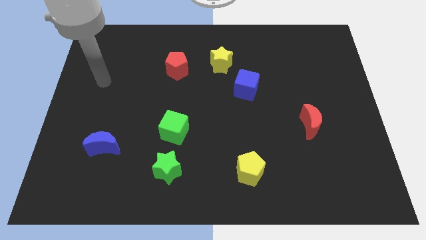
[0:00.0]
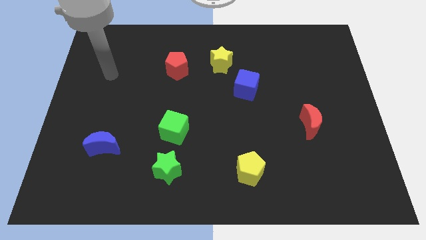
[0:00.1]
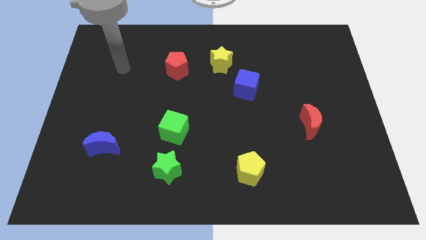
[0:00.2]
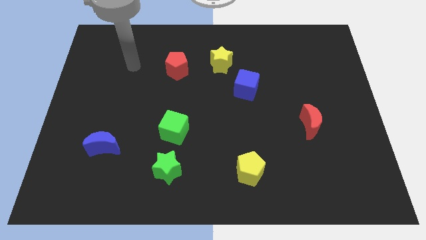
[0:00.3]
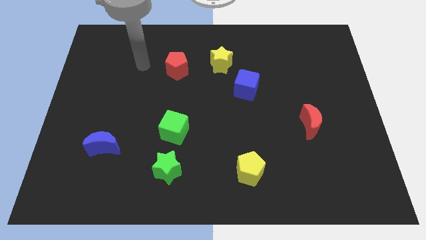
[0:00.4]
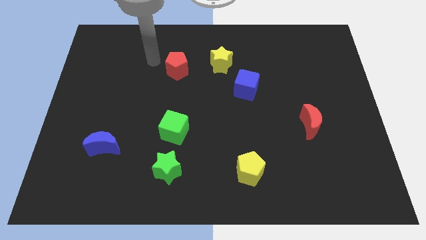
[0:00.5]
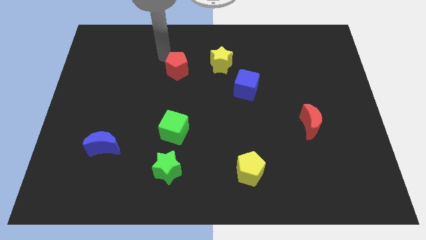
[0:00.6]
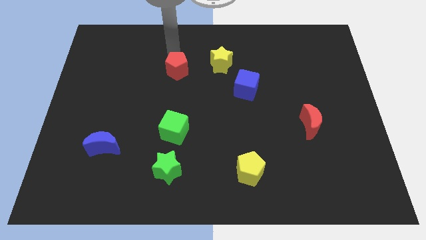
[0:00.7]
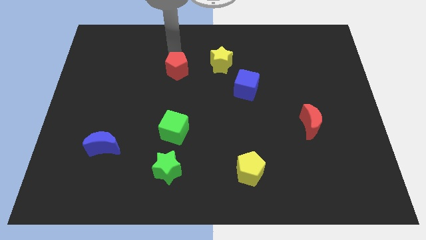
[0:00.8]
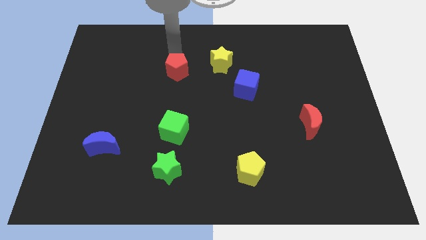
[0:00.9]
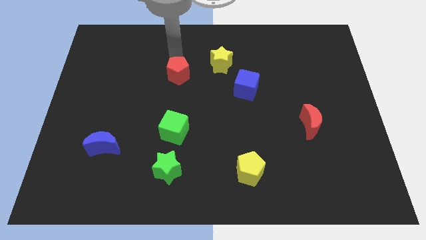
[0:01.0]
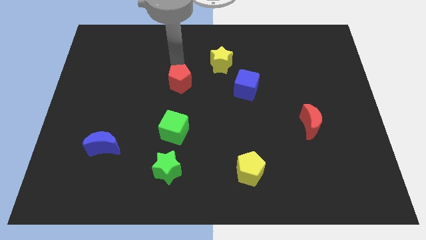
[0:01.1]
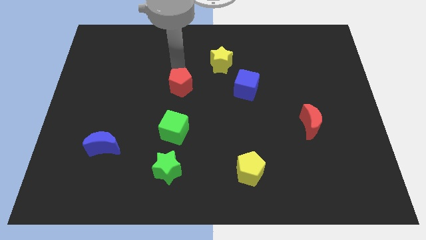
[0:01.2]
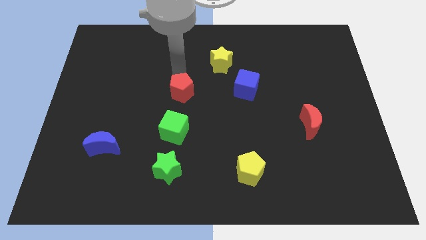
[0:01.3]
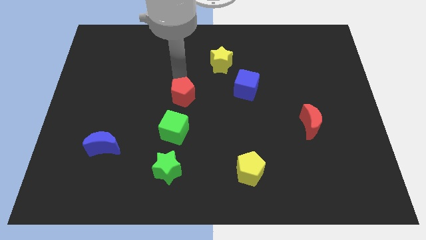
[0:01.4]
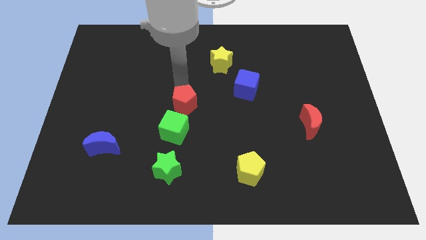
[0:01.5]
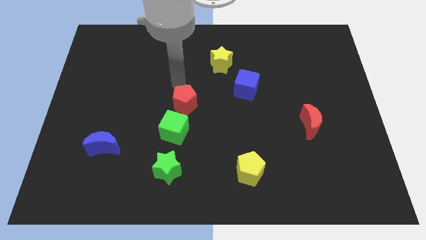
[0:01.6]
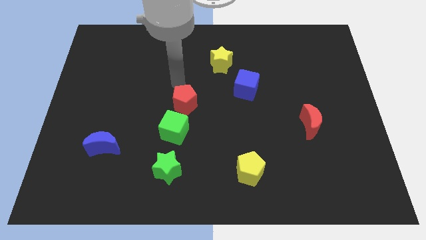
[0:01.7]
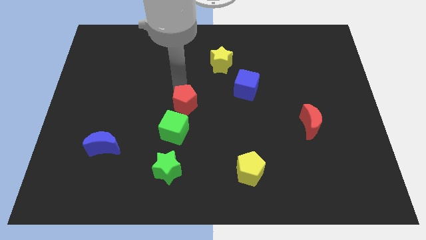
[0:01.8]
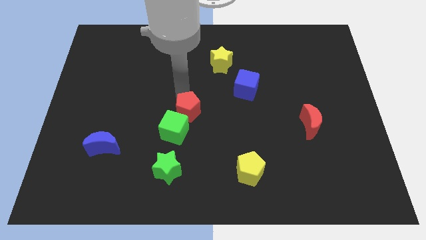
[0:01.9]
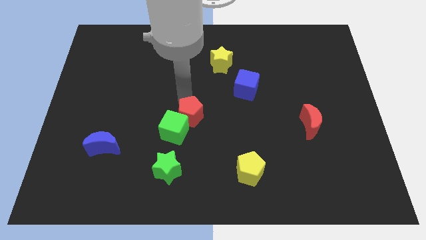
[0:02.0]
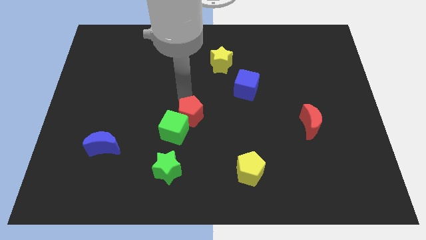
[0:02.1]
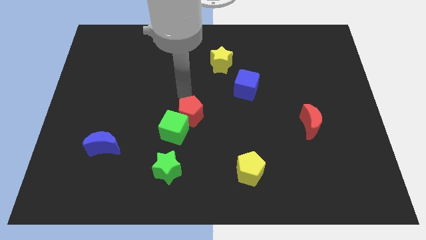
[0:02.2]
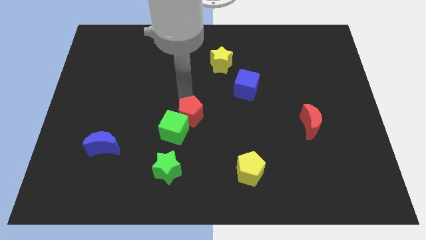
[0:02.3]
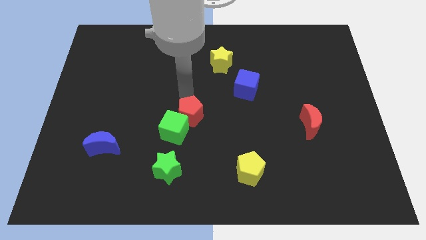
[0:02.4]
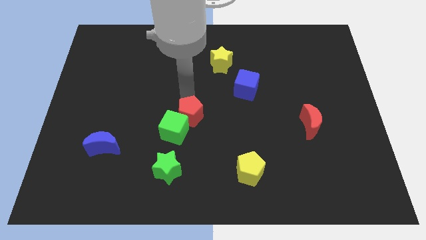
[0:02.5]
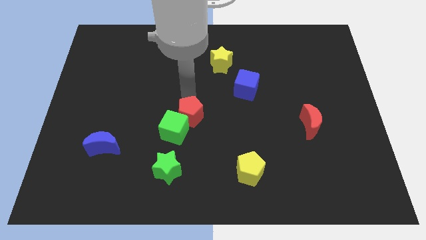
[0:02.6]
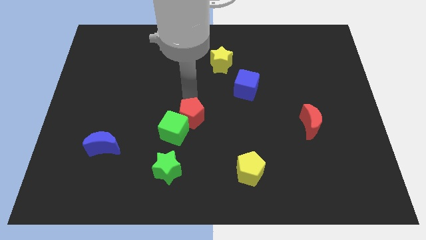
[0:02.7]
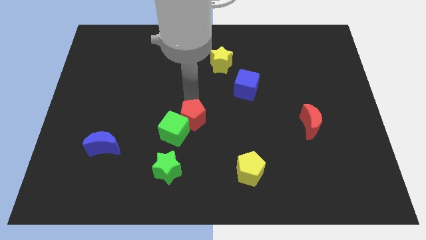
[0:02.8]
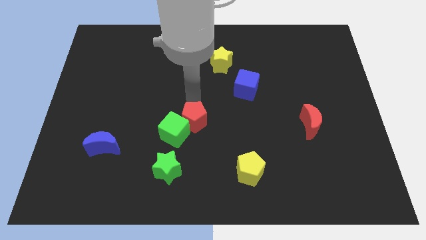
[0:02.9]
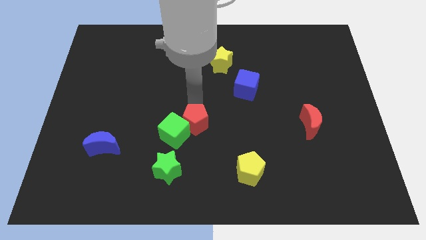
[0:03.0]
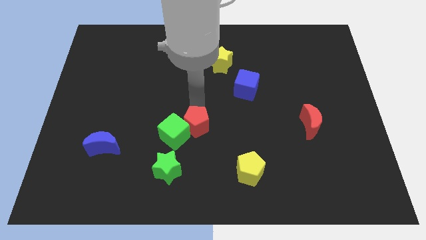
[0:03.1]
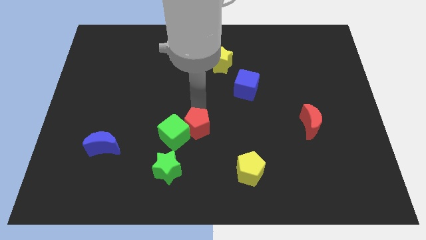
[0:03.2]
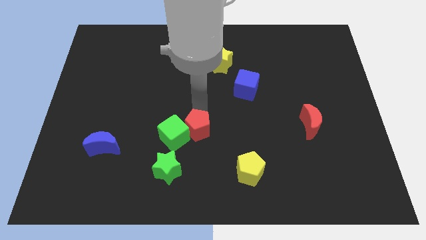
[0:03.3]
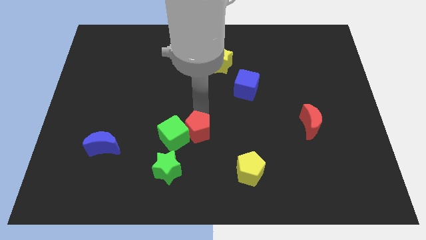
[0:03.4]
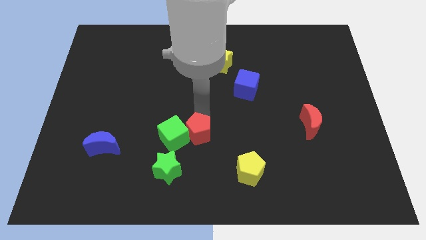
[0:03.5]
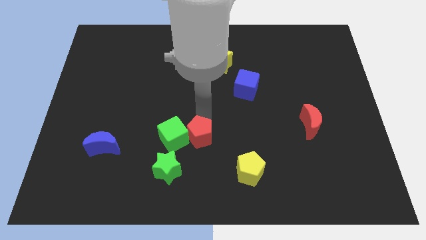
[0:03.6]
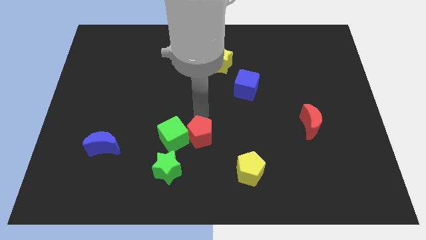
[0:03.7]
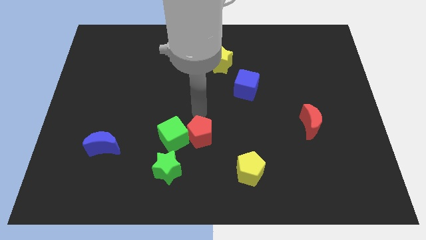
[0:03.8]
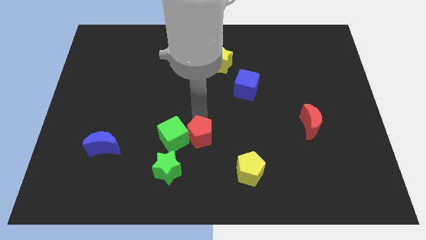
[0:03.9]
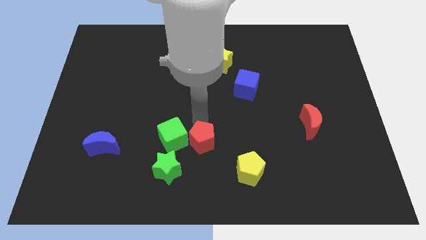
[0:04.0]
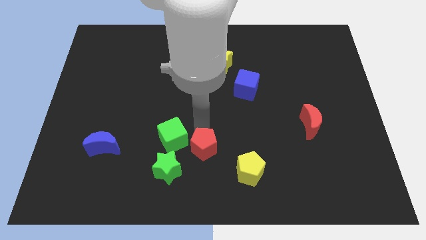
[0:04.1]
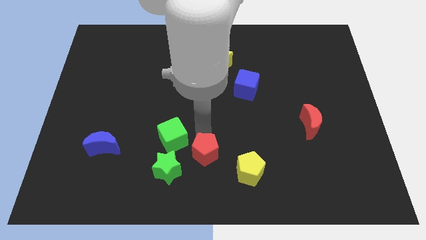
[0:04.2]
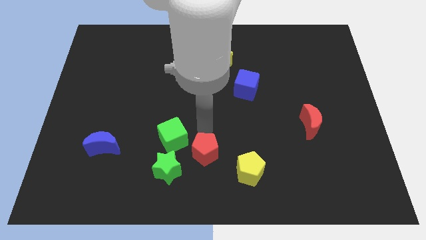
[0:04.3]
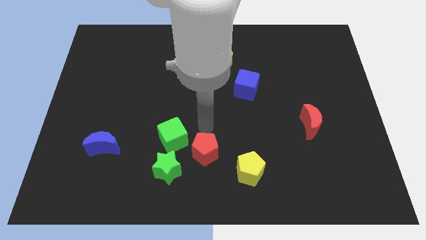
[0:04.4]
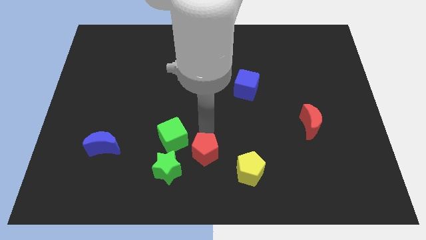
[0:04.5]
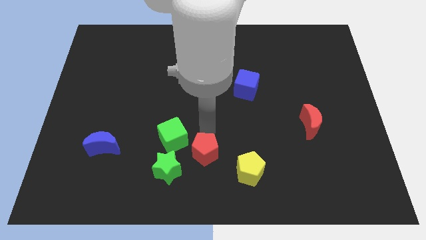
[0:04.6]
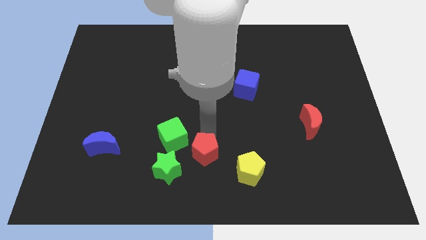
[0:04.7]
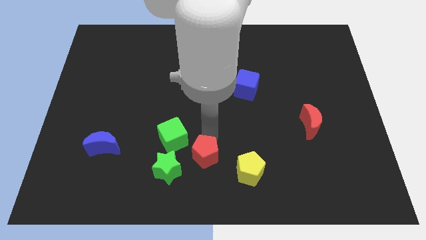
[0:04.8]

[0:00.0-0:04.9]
slide the red pentagon to the bottom side

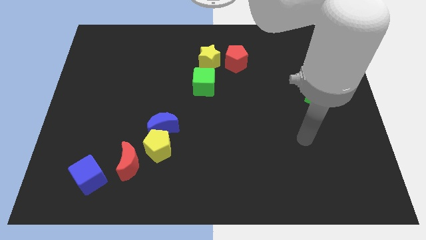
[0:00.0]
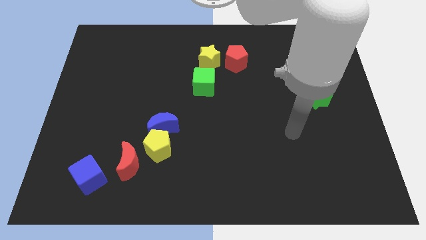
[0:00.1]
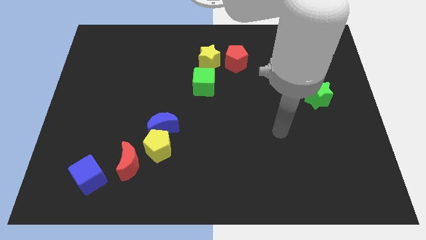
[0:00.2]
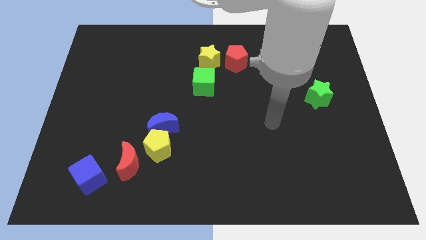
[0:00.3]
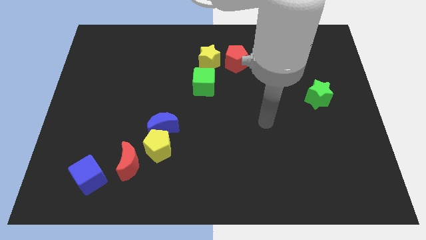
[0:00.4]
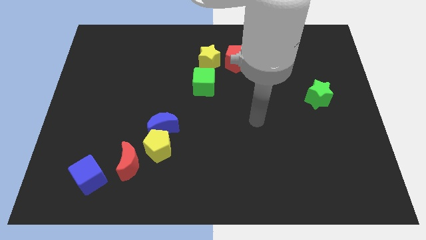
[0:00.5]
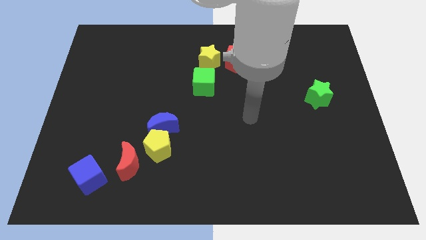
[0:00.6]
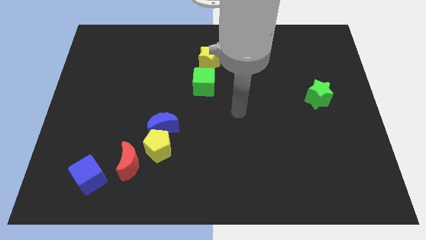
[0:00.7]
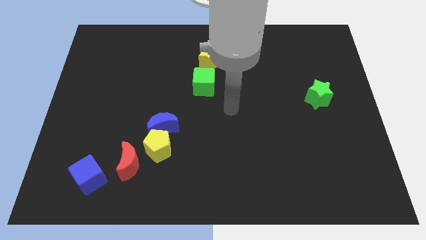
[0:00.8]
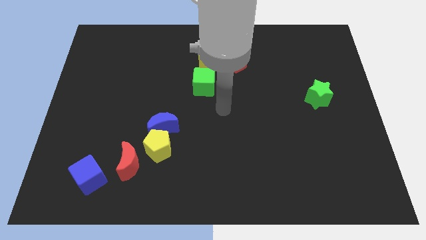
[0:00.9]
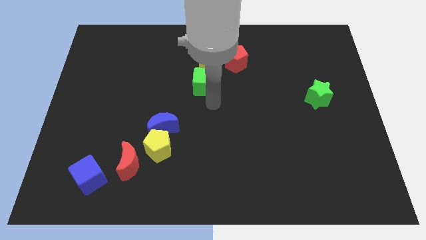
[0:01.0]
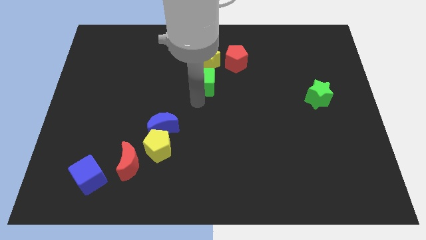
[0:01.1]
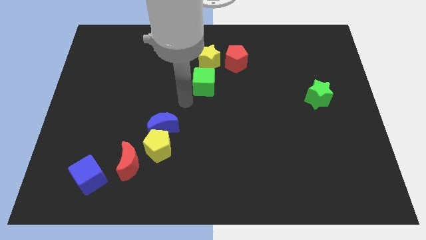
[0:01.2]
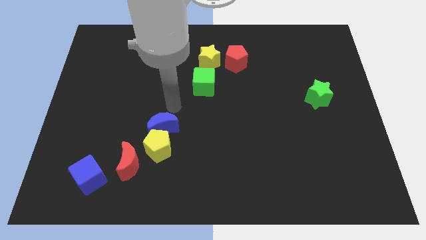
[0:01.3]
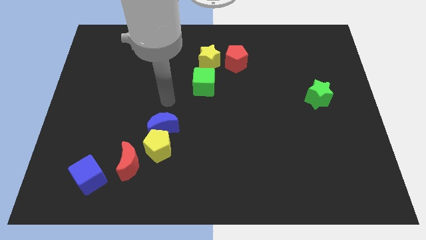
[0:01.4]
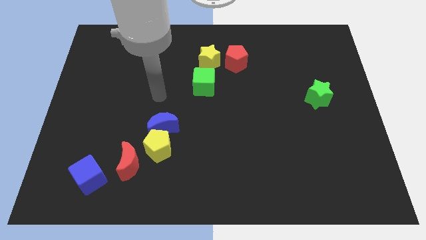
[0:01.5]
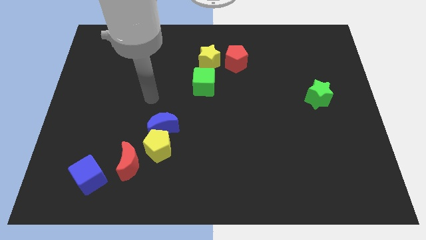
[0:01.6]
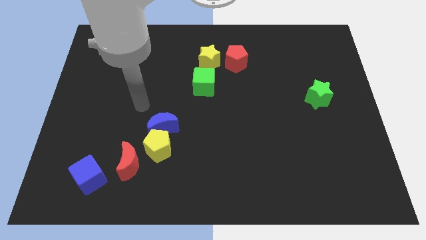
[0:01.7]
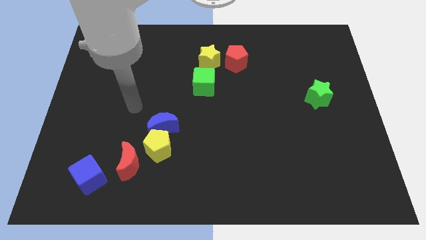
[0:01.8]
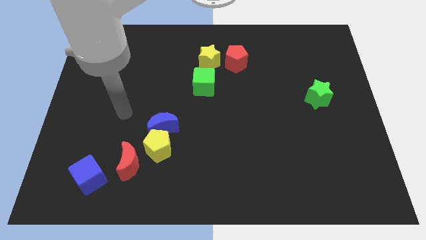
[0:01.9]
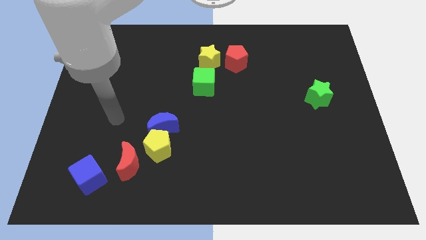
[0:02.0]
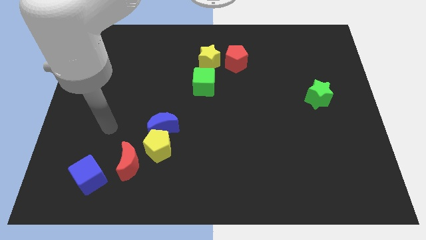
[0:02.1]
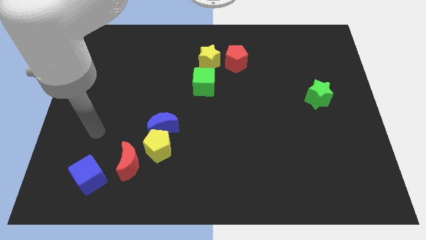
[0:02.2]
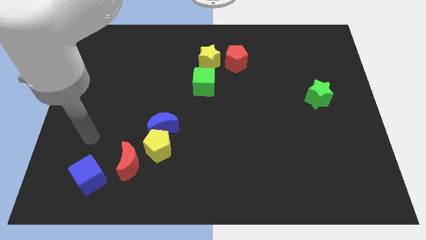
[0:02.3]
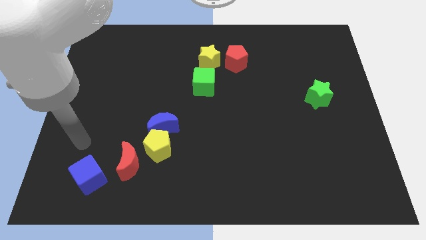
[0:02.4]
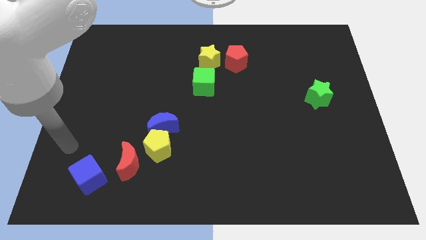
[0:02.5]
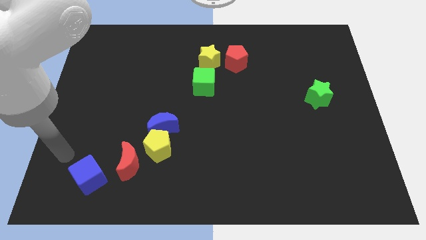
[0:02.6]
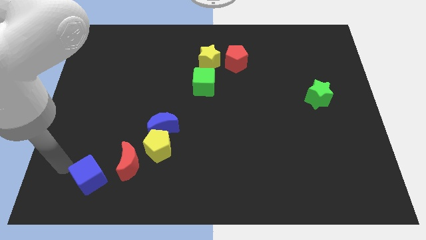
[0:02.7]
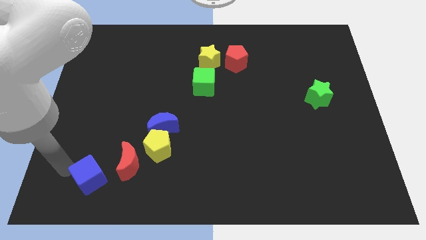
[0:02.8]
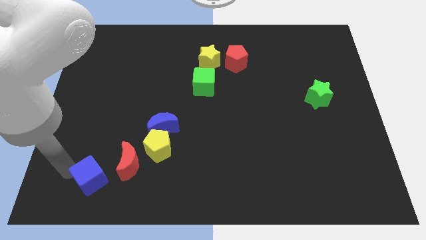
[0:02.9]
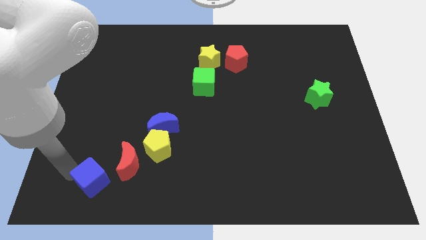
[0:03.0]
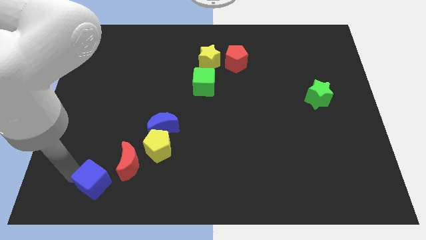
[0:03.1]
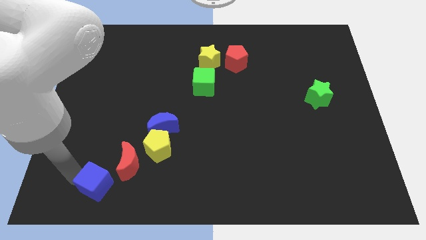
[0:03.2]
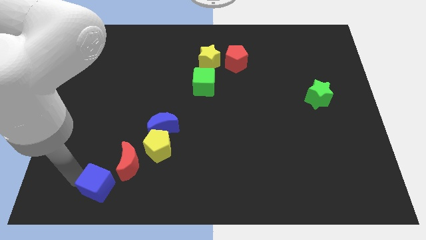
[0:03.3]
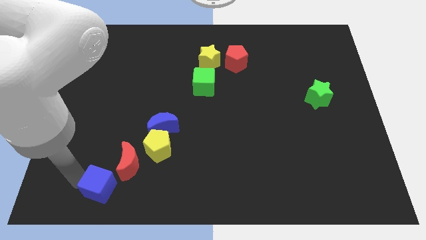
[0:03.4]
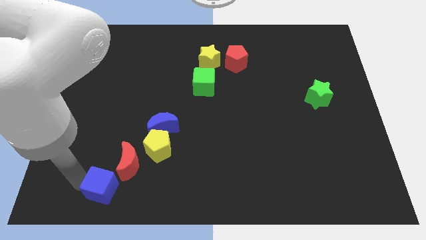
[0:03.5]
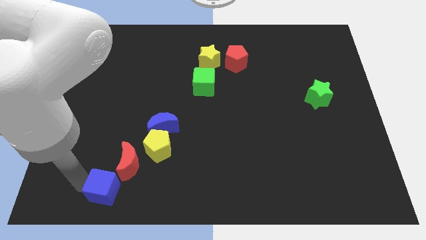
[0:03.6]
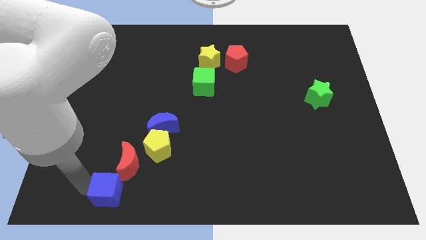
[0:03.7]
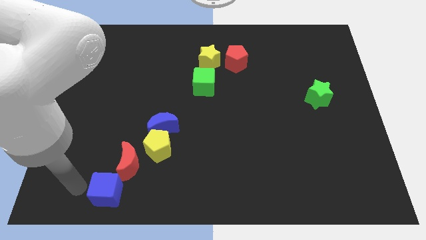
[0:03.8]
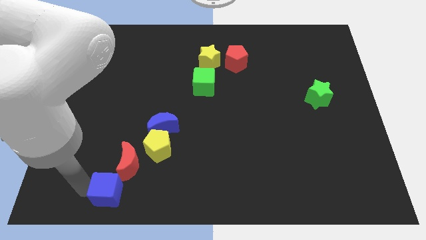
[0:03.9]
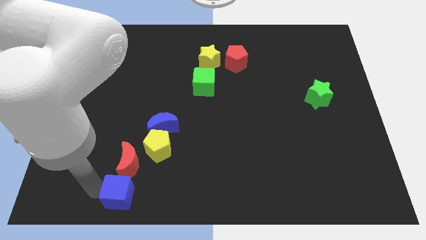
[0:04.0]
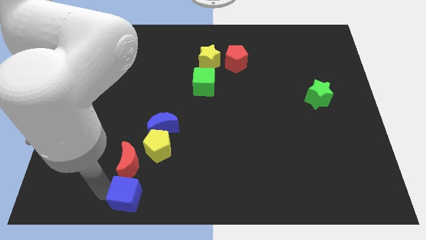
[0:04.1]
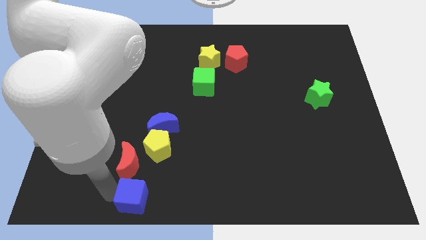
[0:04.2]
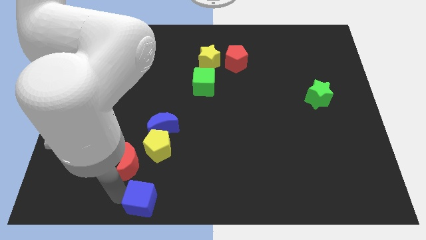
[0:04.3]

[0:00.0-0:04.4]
push the blue cube to the bottom side
